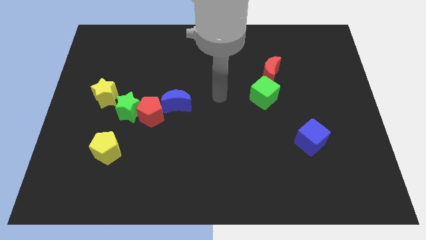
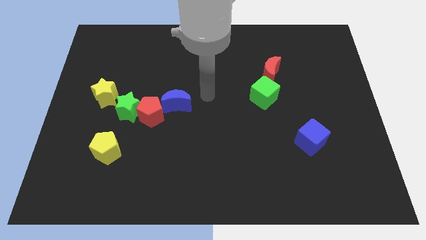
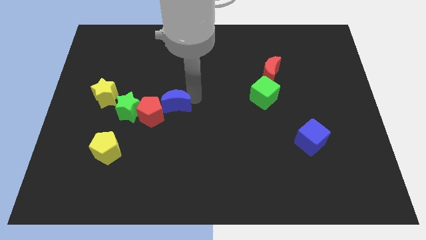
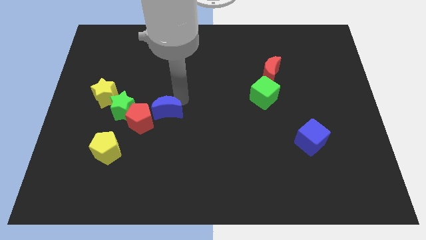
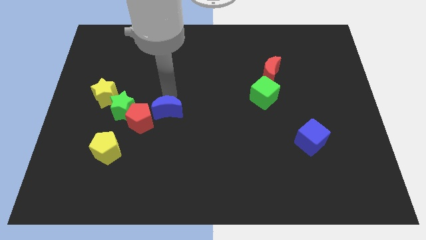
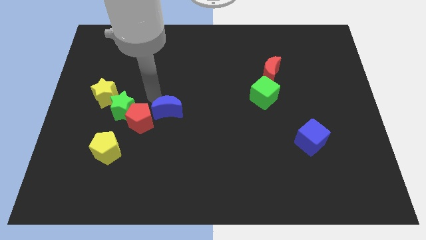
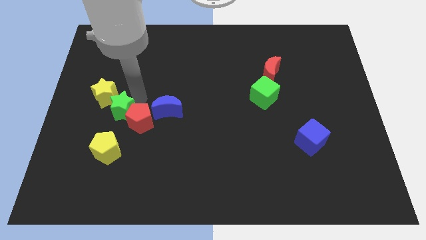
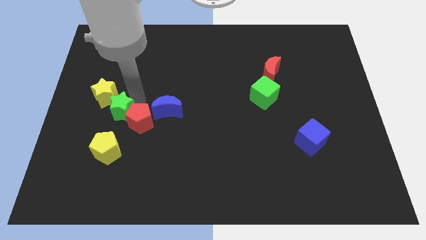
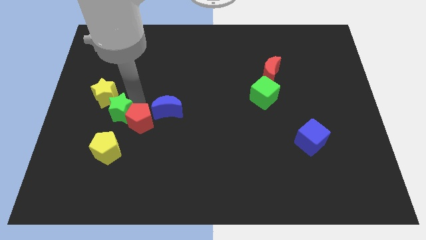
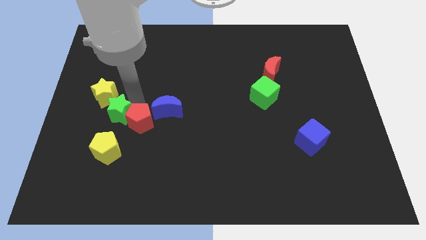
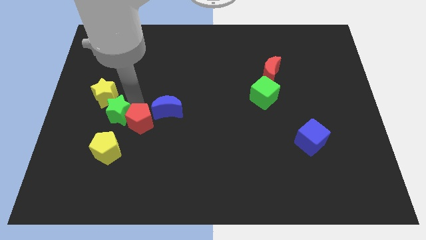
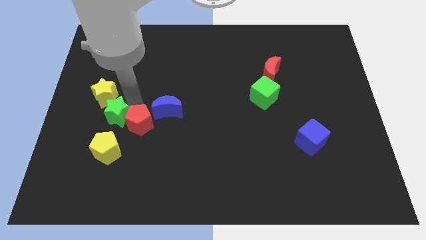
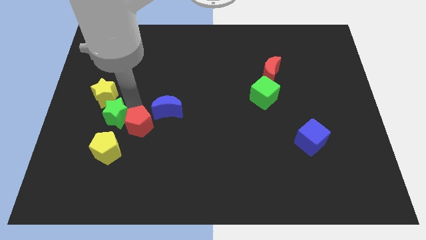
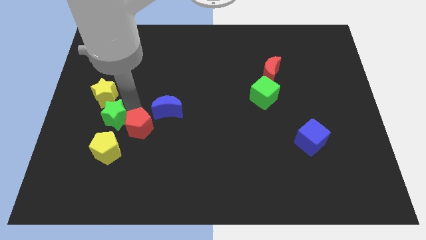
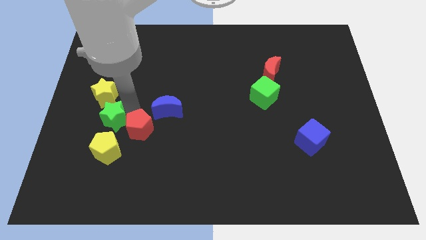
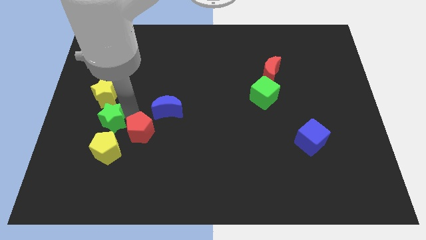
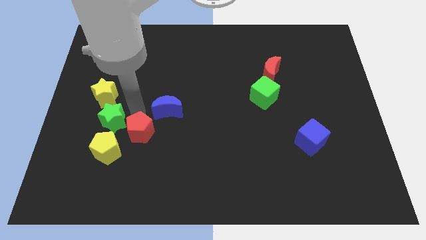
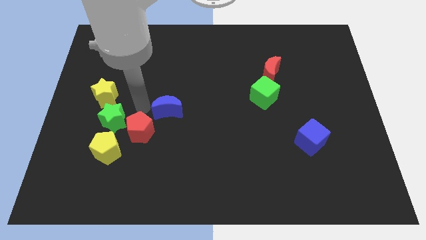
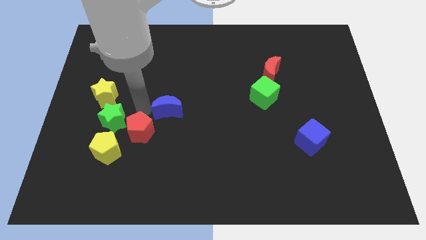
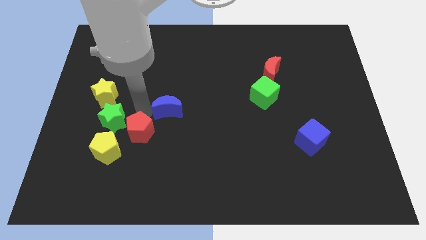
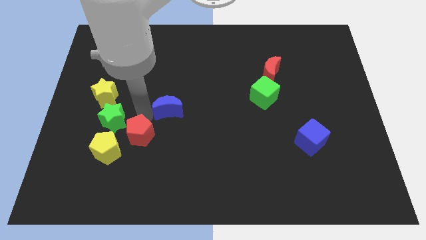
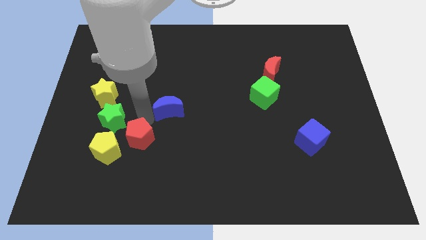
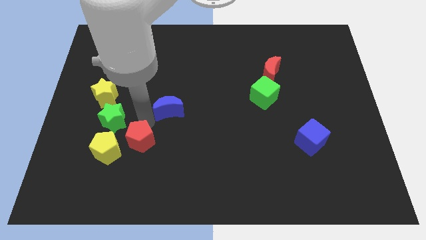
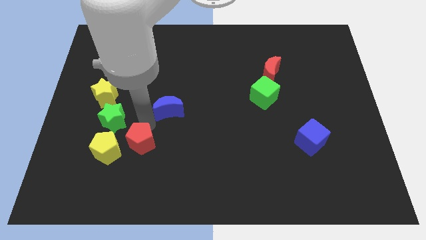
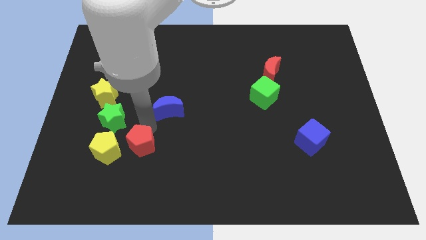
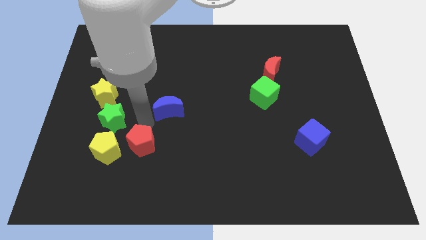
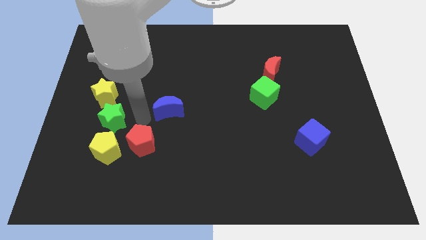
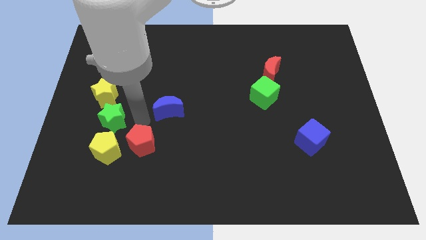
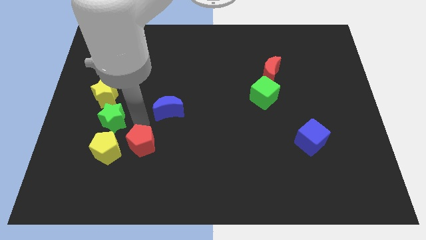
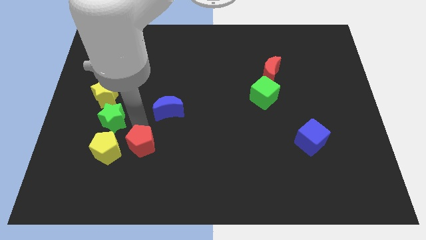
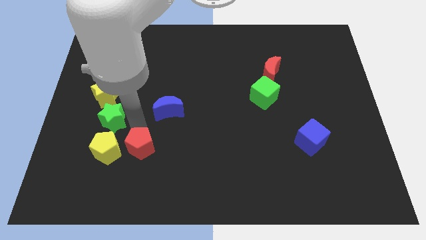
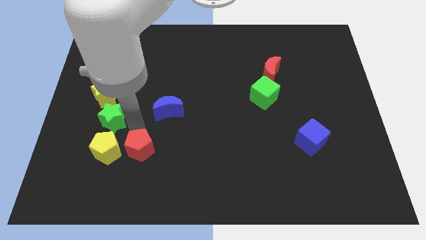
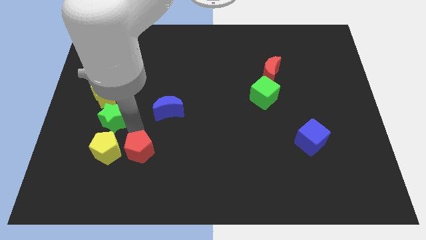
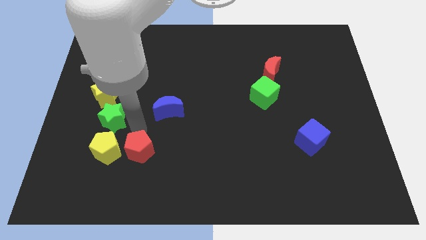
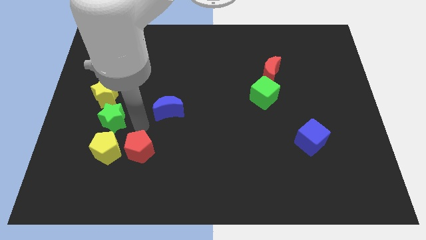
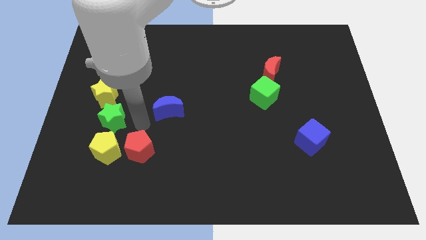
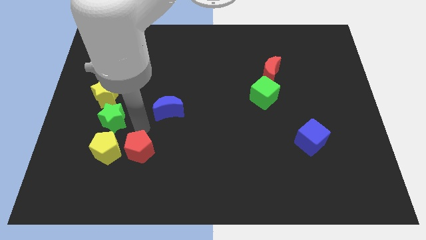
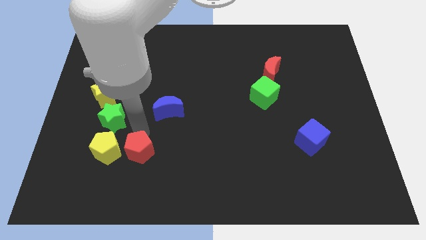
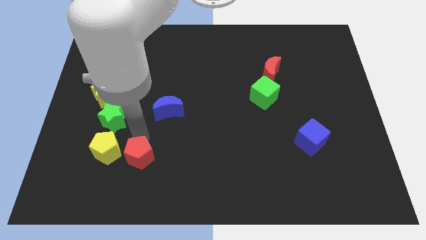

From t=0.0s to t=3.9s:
separate the red pentagon from the green star and blue moon

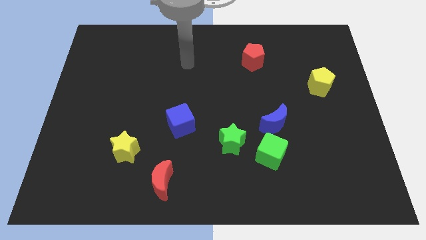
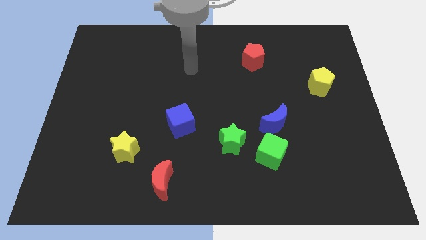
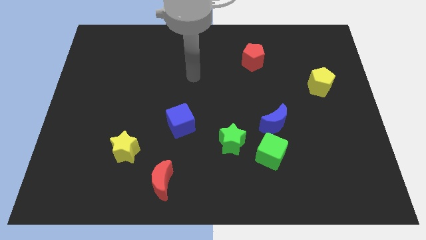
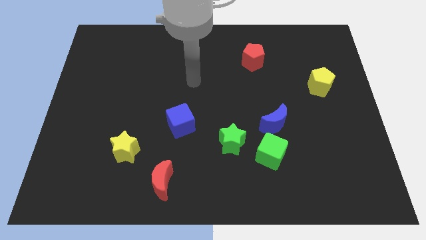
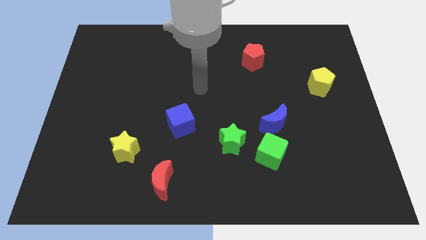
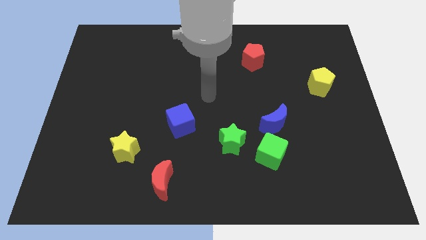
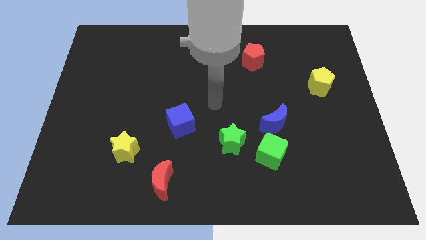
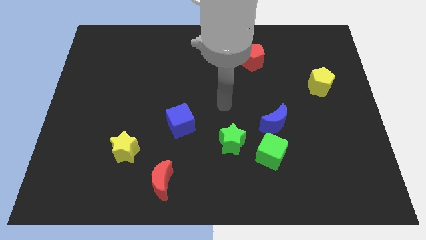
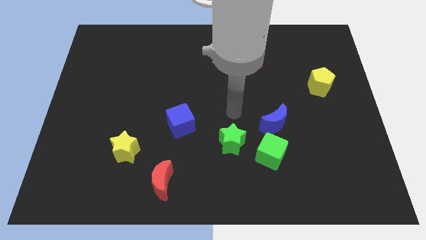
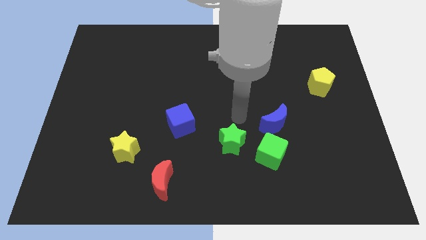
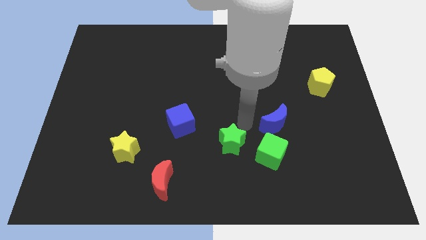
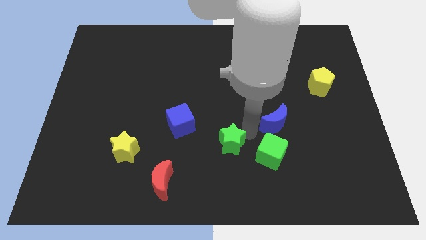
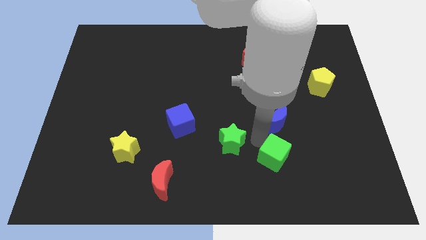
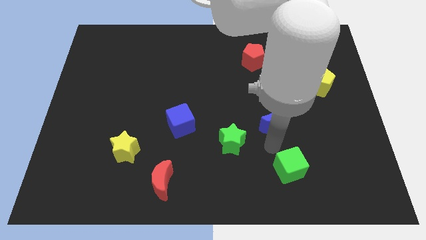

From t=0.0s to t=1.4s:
move the blue moon away from the green cube

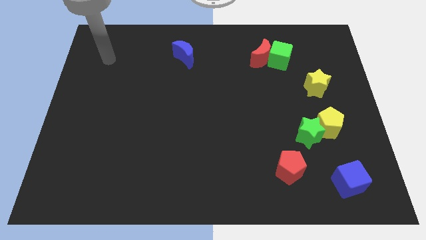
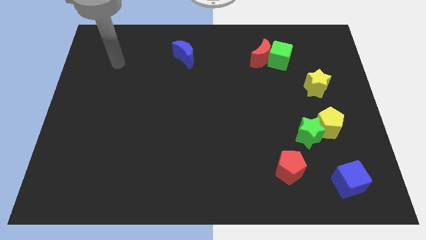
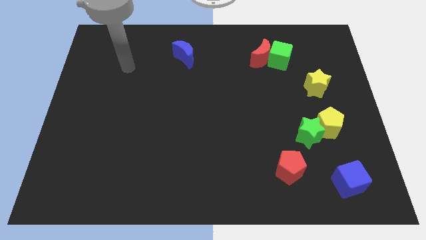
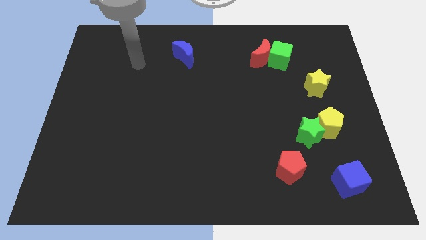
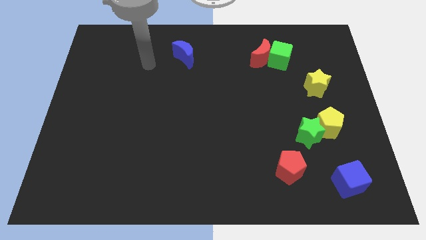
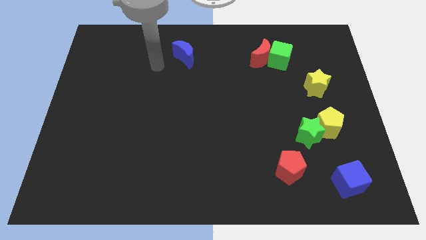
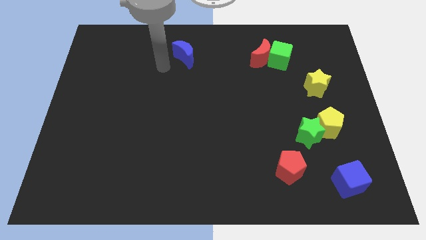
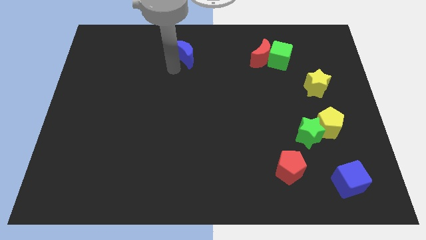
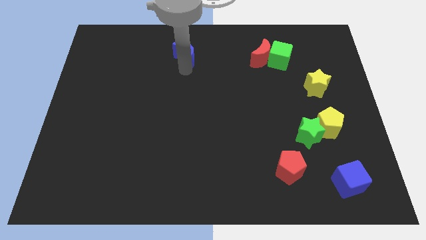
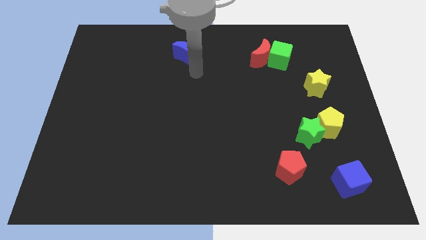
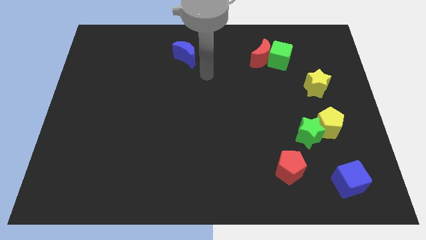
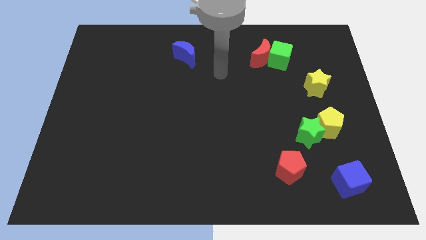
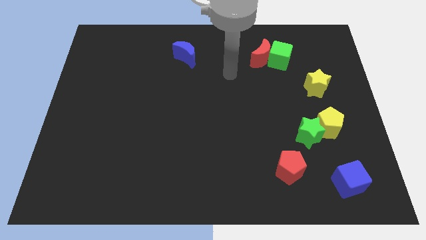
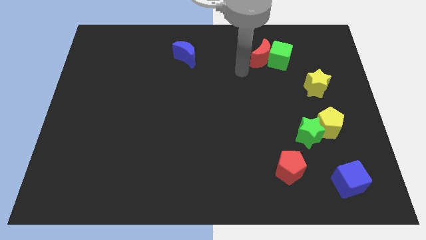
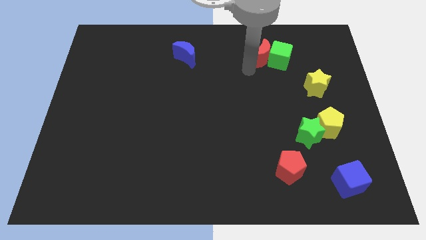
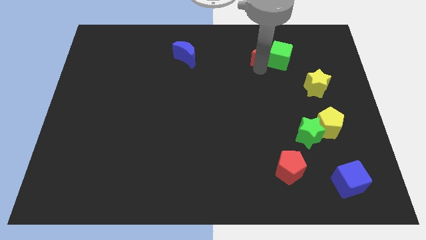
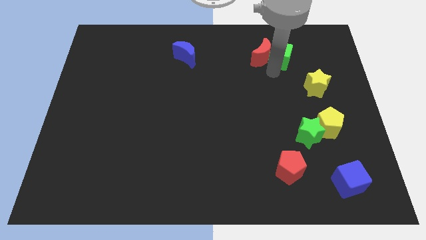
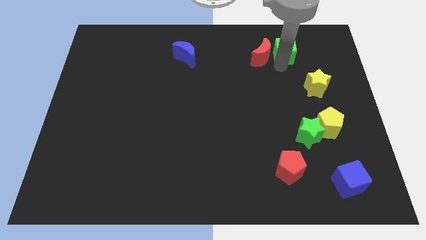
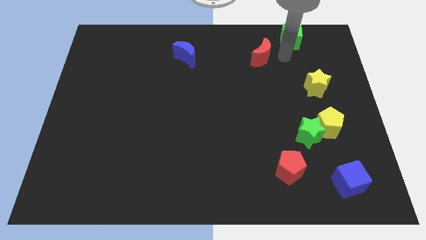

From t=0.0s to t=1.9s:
move the red moon away from the green cube

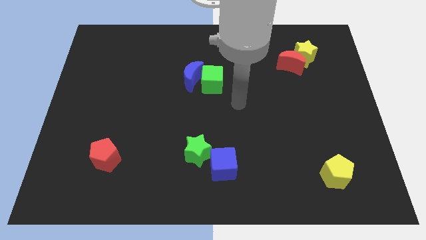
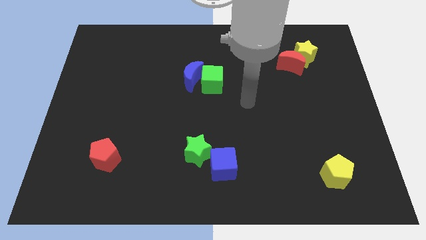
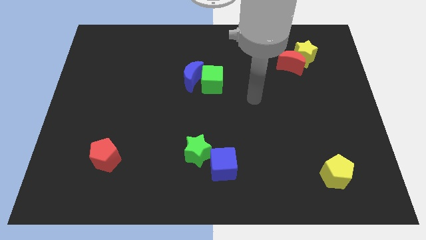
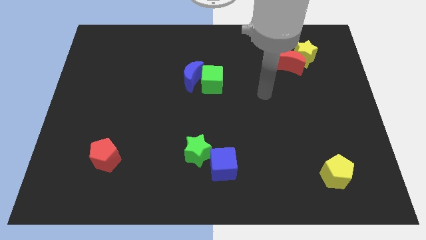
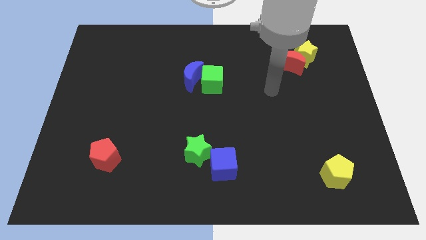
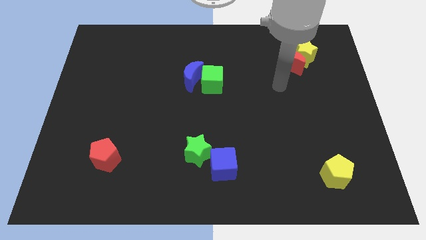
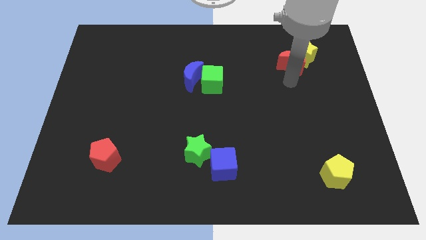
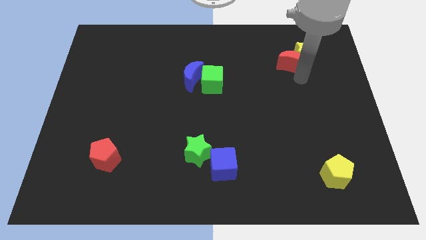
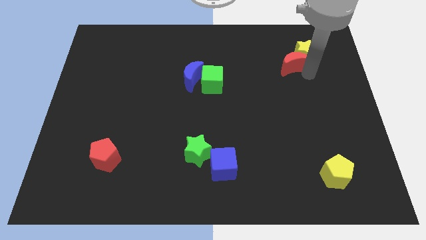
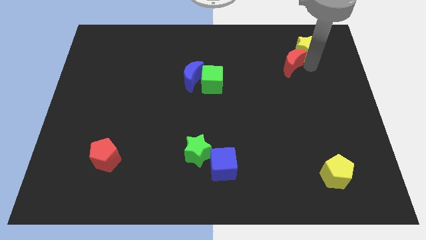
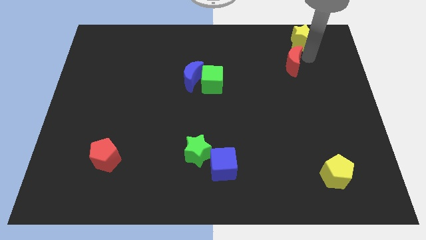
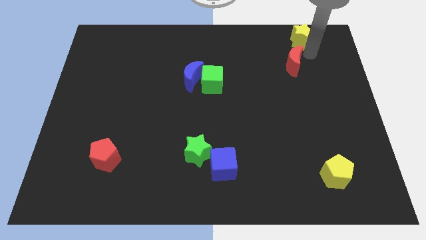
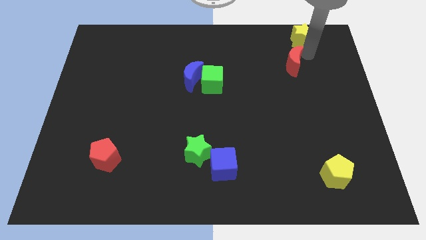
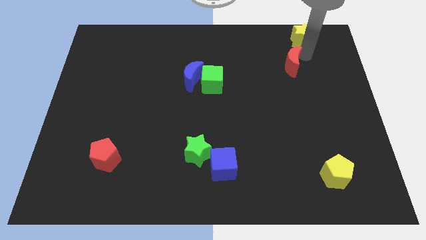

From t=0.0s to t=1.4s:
separate the red moon from the yellow star

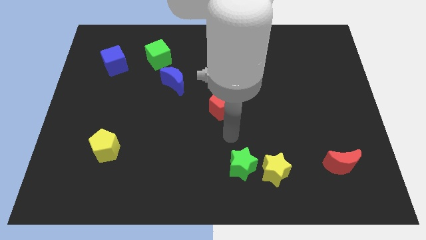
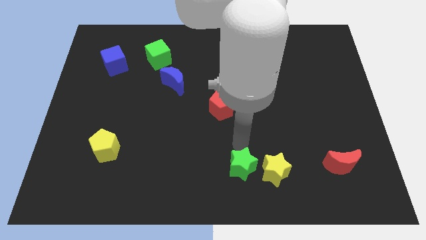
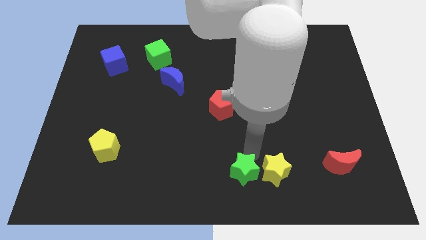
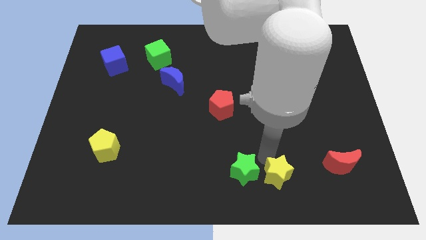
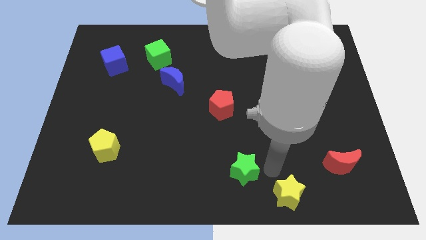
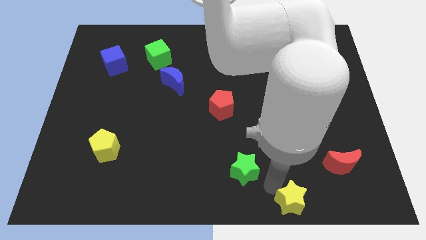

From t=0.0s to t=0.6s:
separate the green star from the yellow star

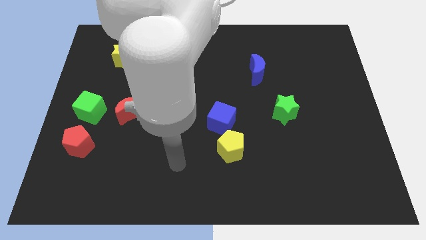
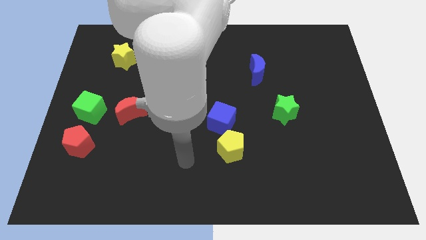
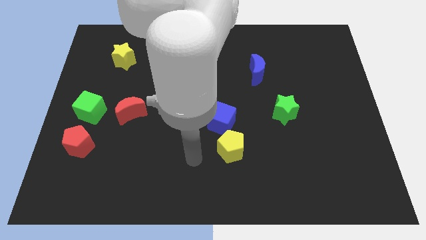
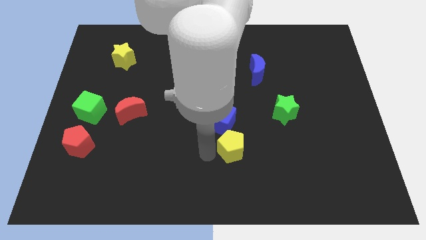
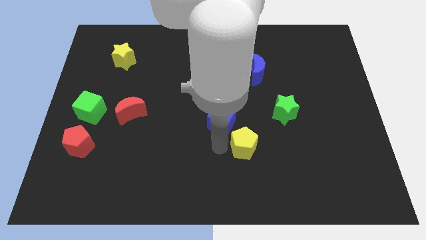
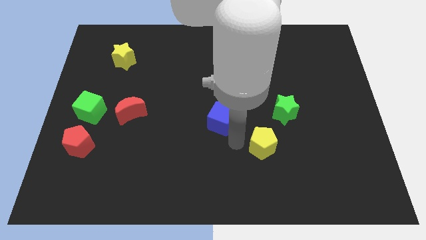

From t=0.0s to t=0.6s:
separate the blue cube from the yellow pentagon
